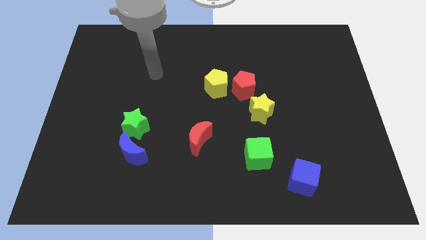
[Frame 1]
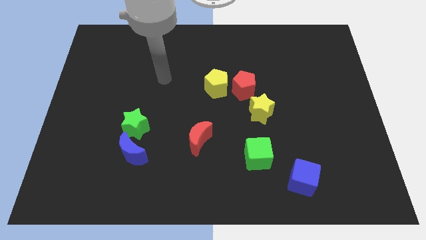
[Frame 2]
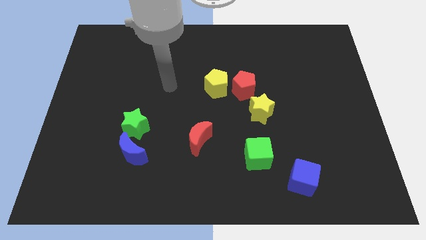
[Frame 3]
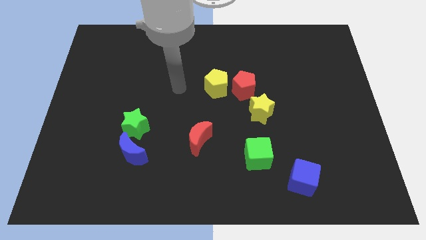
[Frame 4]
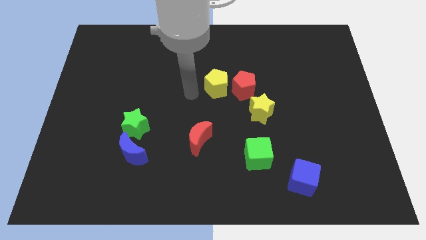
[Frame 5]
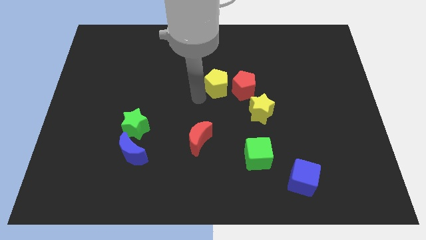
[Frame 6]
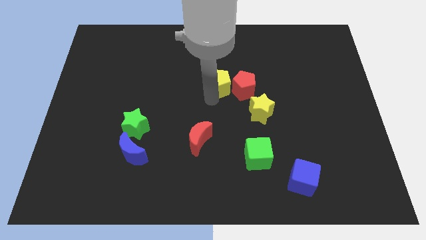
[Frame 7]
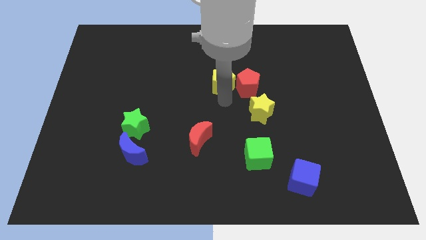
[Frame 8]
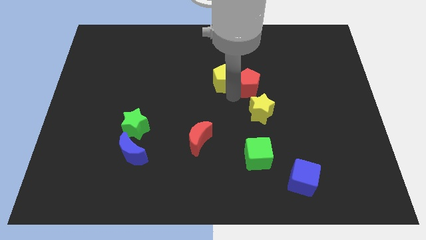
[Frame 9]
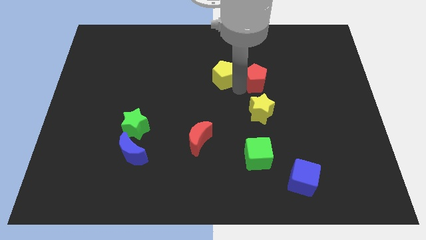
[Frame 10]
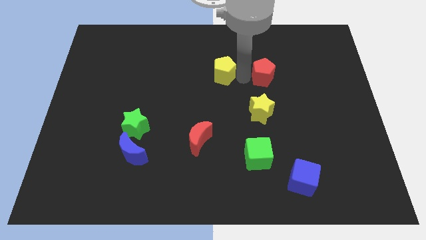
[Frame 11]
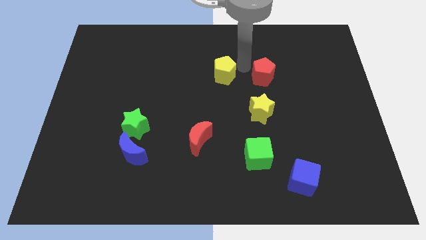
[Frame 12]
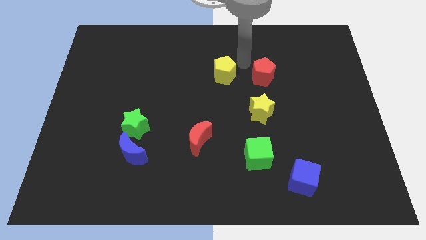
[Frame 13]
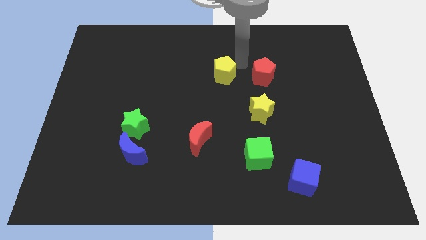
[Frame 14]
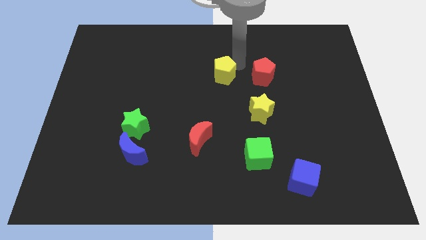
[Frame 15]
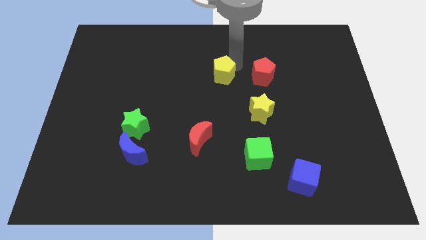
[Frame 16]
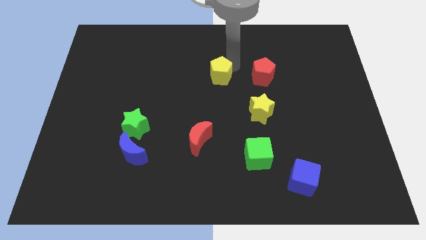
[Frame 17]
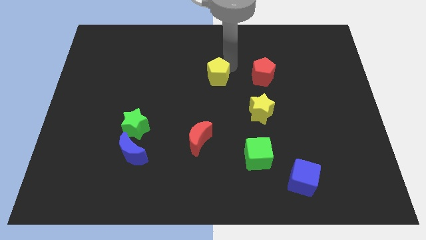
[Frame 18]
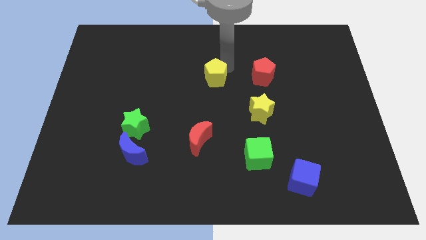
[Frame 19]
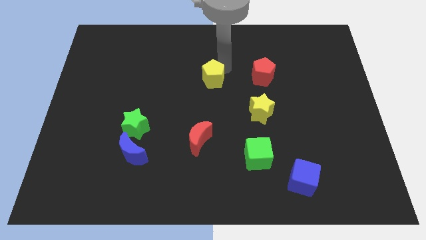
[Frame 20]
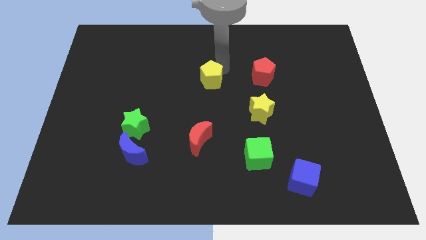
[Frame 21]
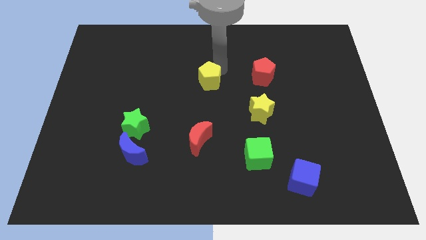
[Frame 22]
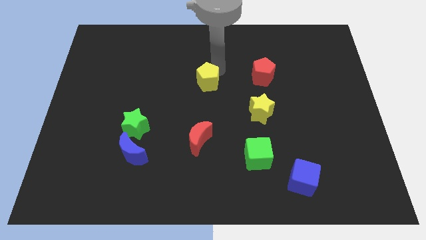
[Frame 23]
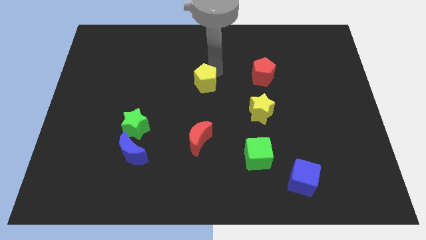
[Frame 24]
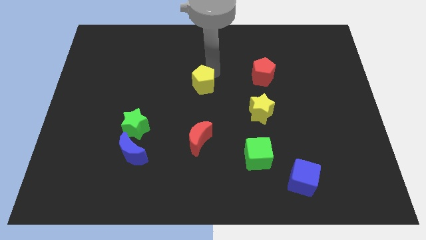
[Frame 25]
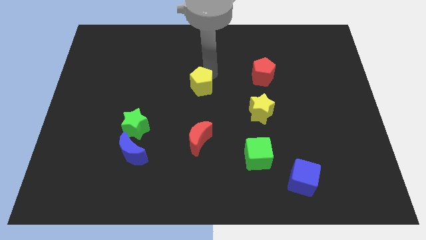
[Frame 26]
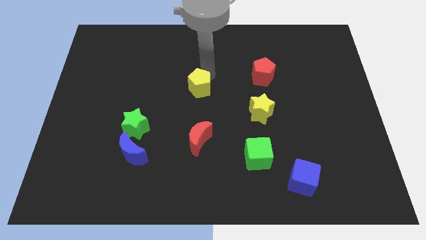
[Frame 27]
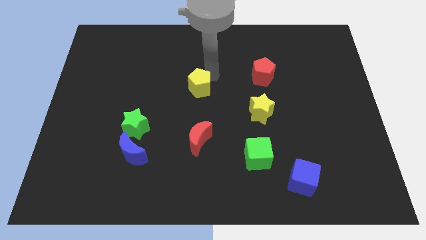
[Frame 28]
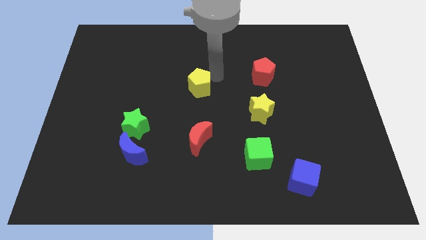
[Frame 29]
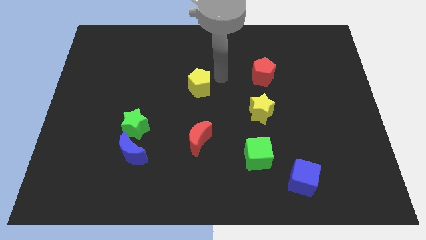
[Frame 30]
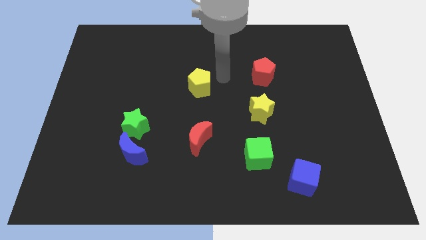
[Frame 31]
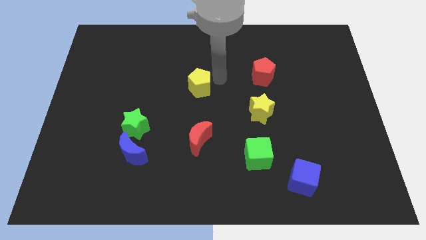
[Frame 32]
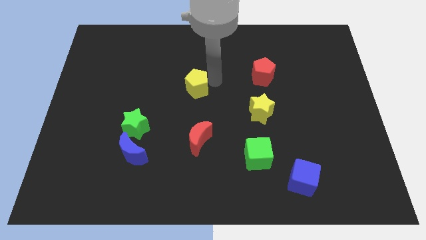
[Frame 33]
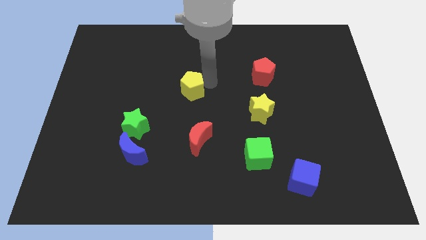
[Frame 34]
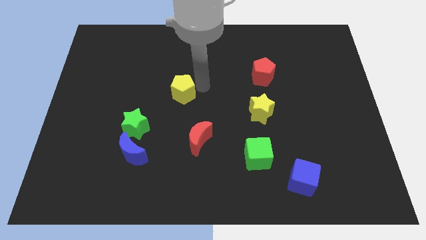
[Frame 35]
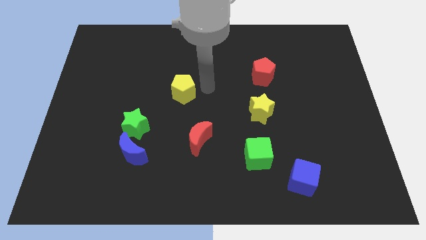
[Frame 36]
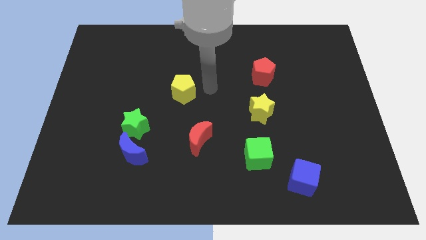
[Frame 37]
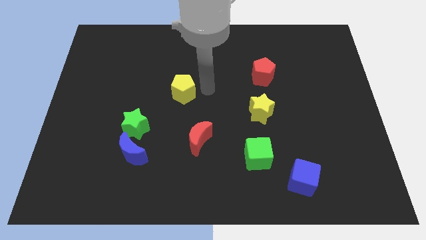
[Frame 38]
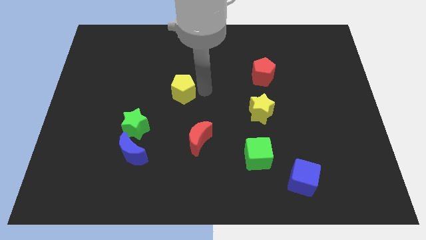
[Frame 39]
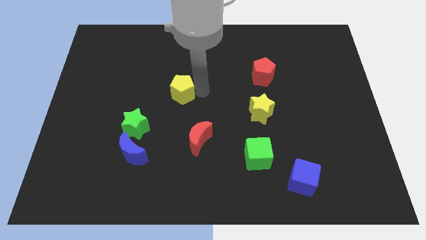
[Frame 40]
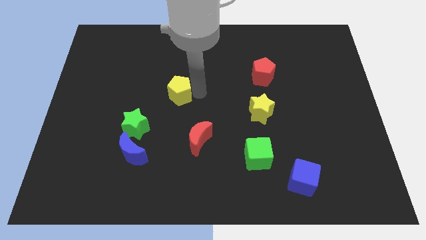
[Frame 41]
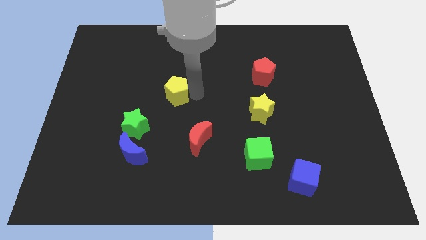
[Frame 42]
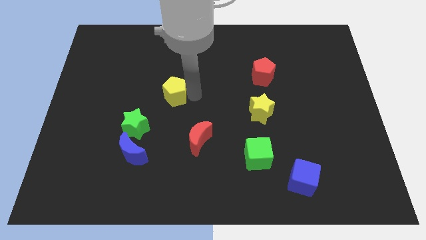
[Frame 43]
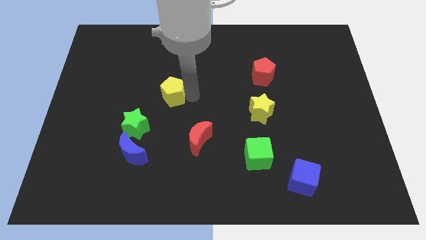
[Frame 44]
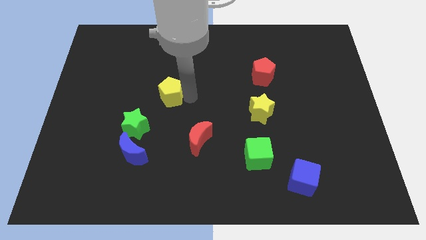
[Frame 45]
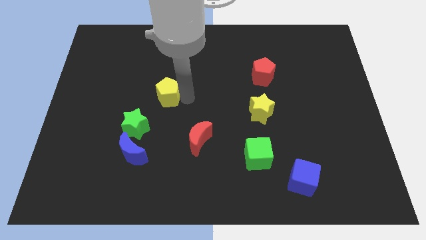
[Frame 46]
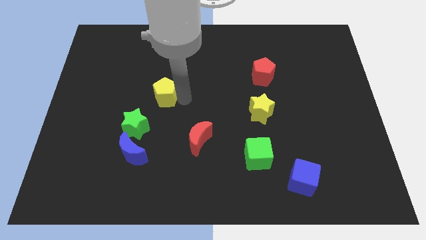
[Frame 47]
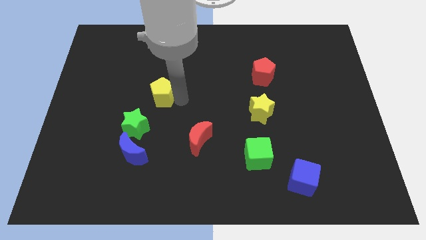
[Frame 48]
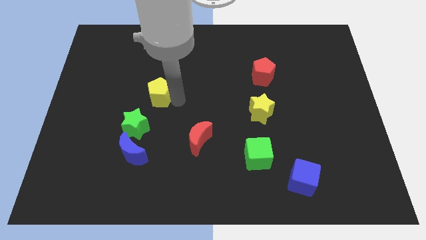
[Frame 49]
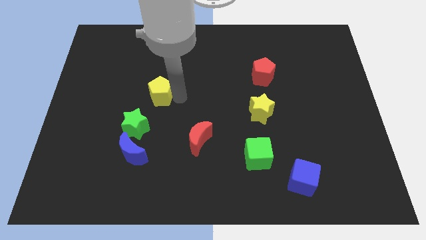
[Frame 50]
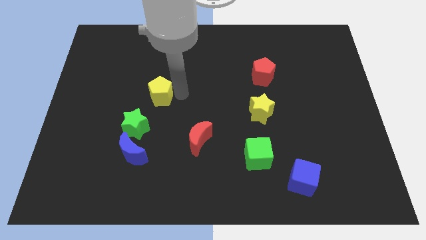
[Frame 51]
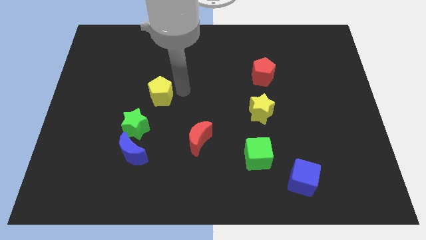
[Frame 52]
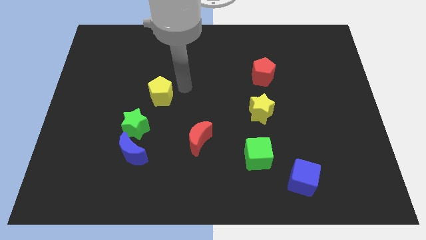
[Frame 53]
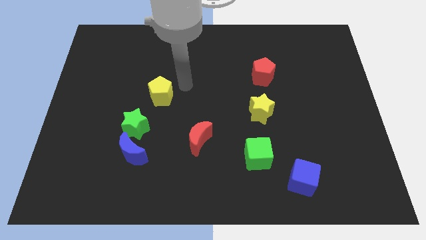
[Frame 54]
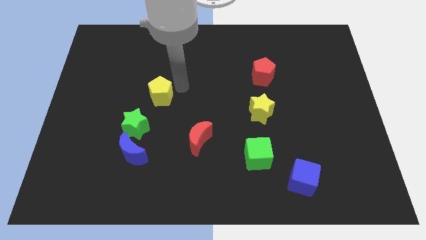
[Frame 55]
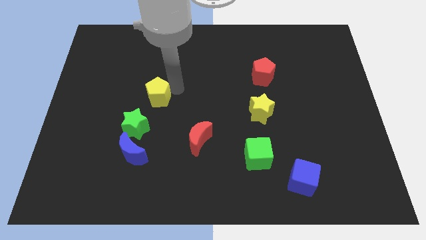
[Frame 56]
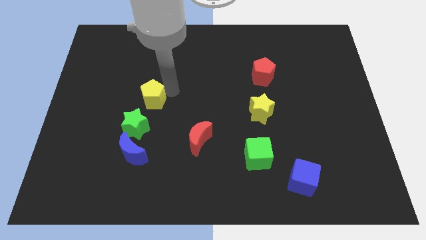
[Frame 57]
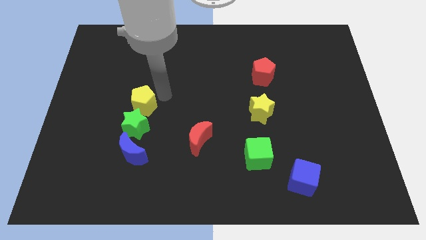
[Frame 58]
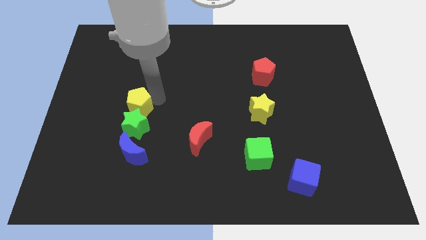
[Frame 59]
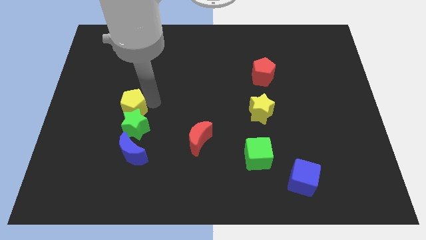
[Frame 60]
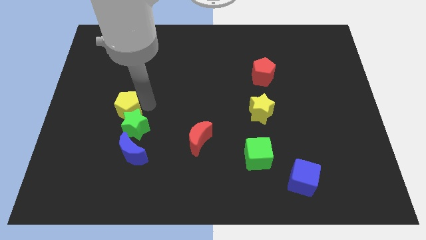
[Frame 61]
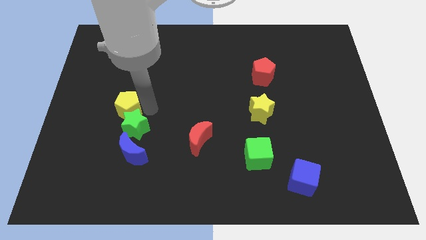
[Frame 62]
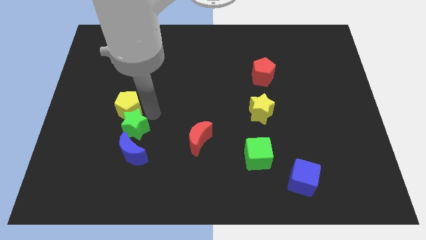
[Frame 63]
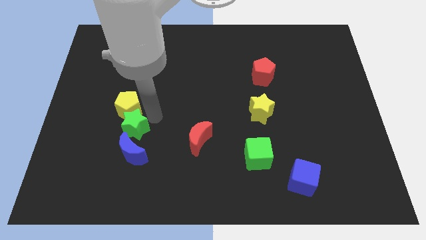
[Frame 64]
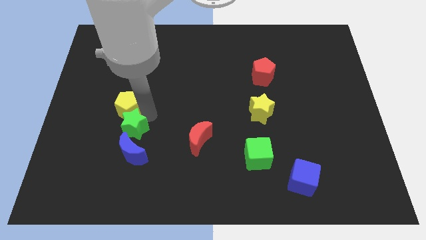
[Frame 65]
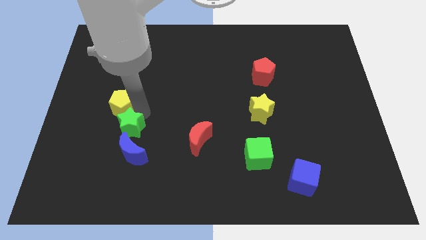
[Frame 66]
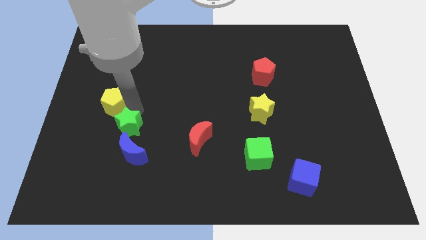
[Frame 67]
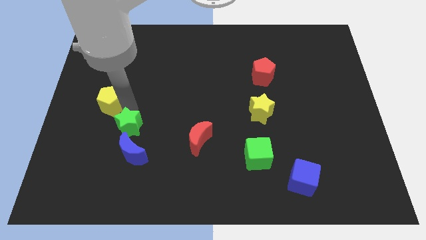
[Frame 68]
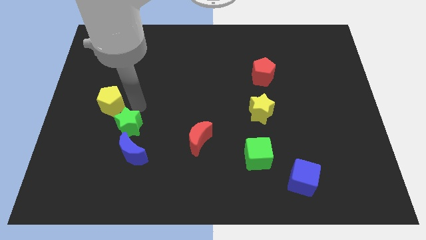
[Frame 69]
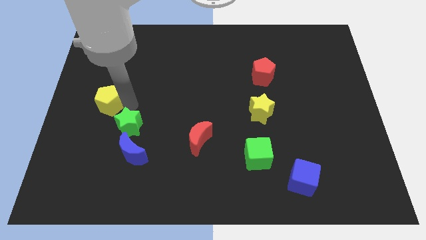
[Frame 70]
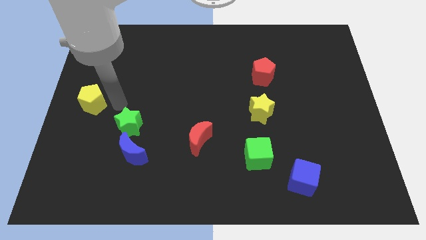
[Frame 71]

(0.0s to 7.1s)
slide the yellow pentagon to the center left
